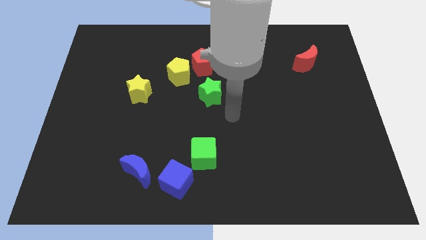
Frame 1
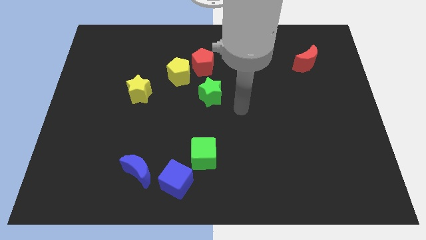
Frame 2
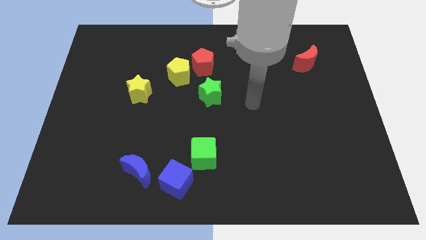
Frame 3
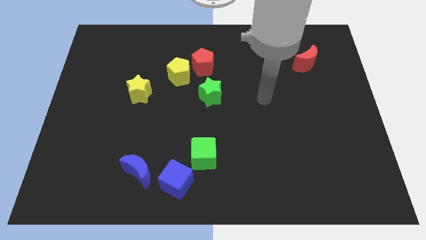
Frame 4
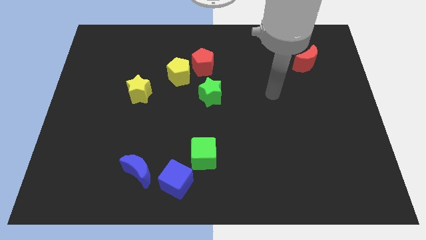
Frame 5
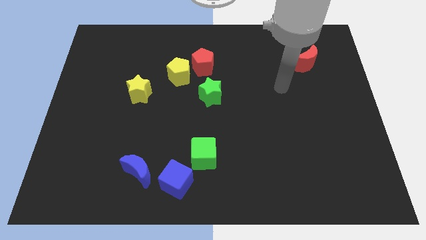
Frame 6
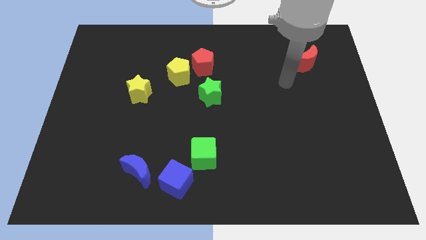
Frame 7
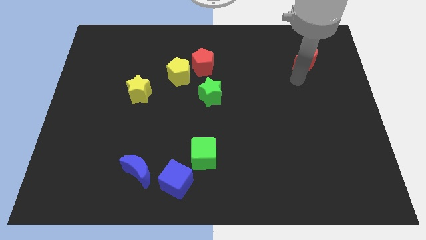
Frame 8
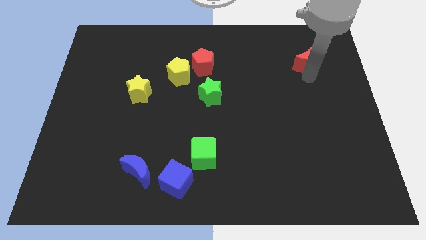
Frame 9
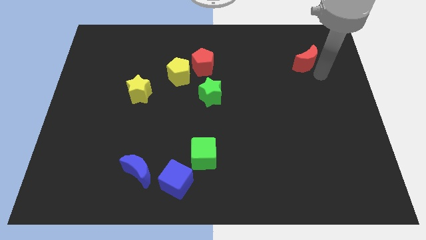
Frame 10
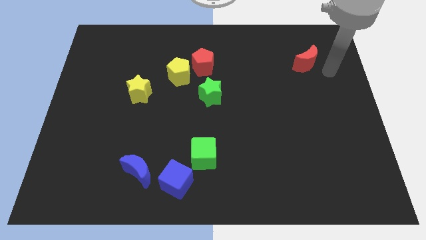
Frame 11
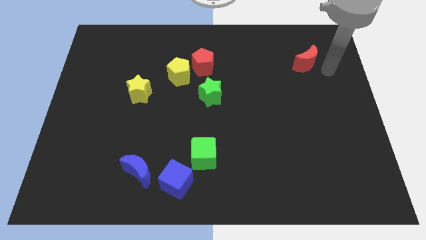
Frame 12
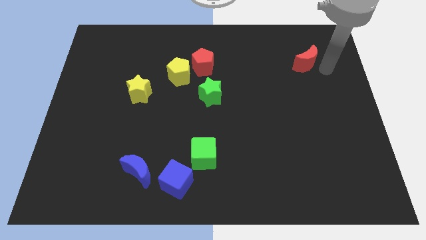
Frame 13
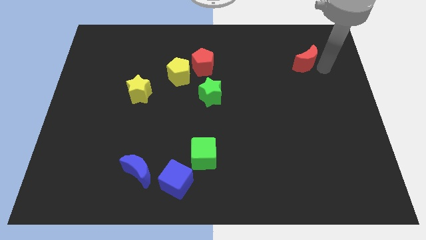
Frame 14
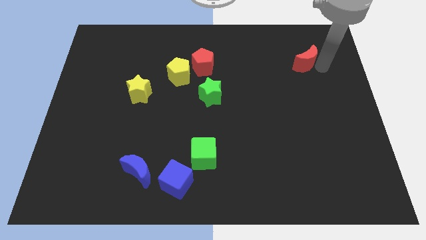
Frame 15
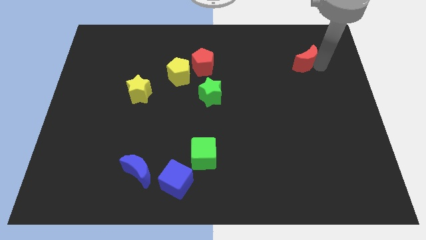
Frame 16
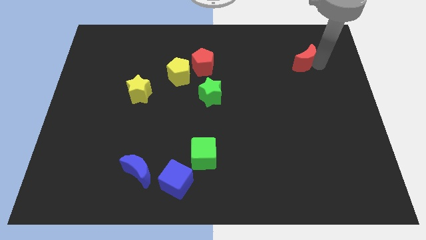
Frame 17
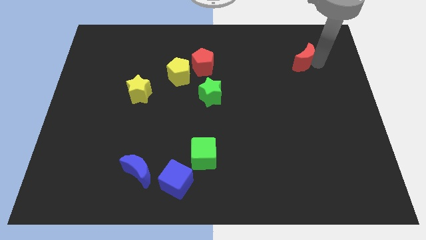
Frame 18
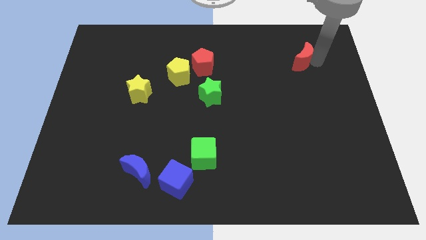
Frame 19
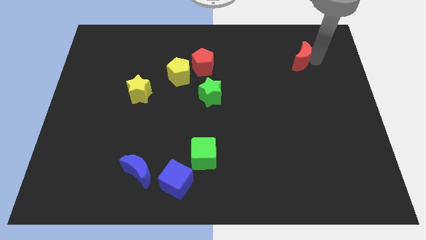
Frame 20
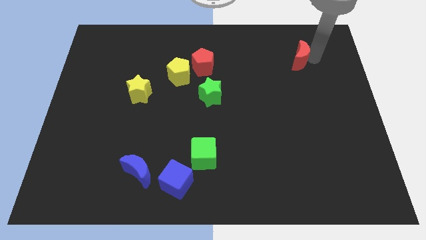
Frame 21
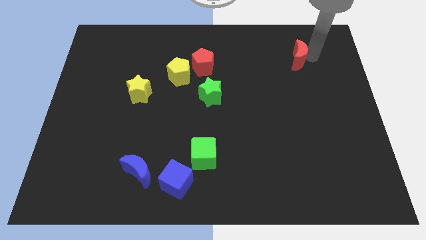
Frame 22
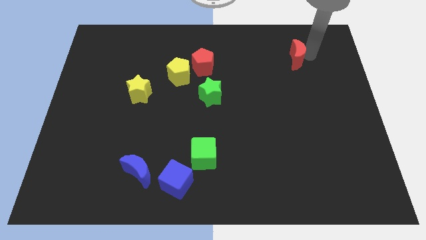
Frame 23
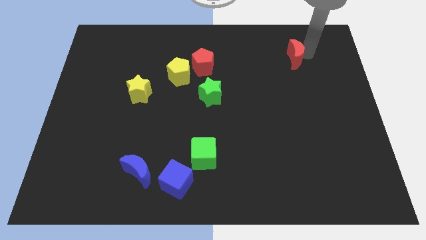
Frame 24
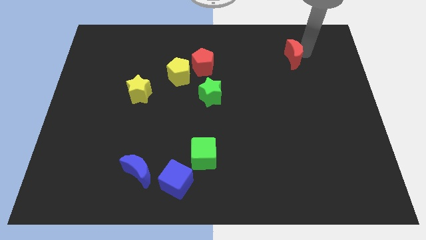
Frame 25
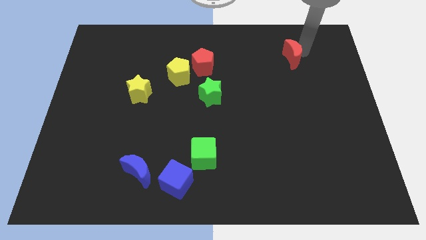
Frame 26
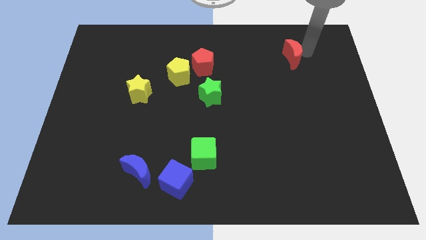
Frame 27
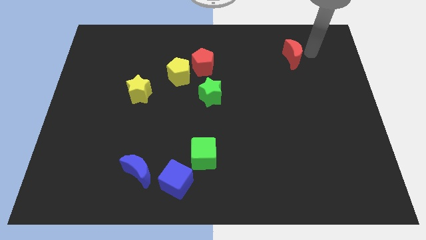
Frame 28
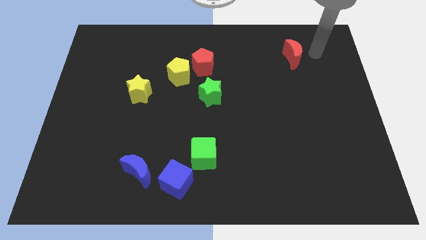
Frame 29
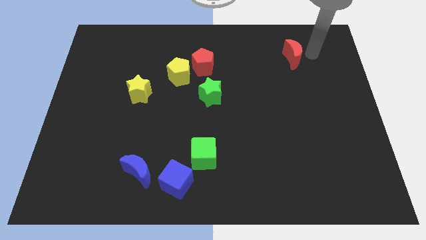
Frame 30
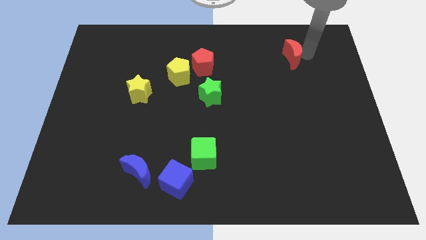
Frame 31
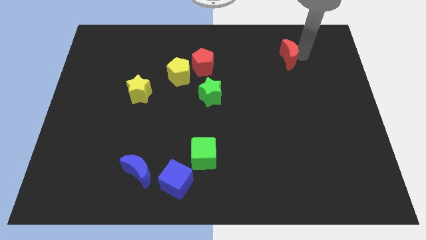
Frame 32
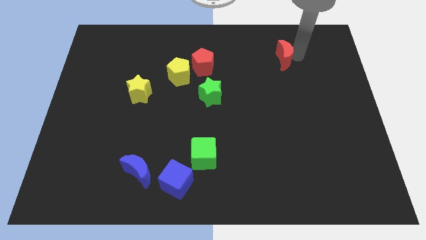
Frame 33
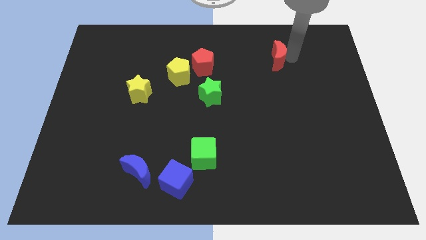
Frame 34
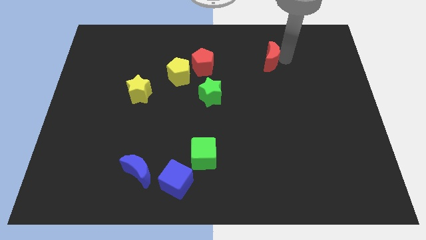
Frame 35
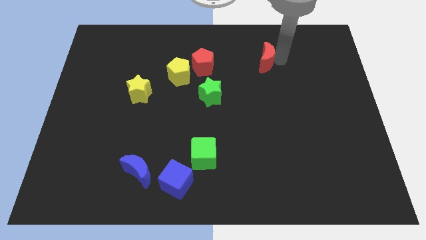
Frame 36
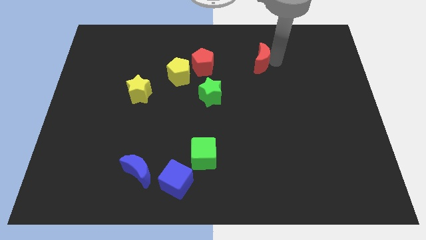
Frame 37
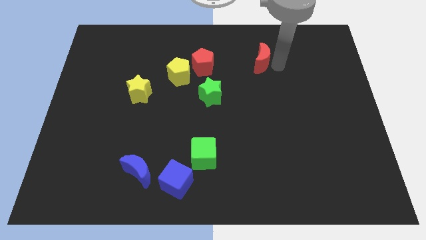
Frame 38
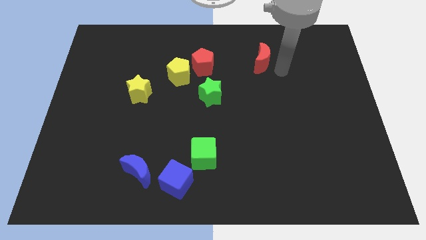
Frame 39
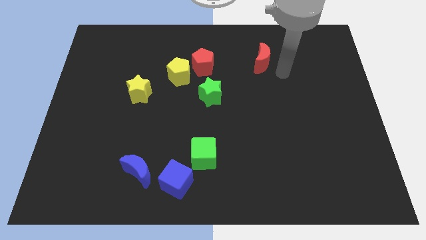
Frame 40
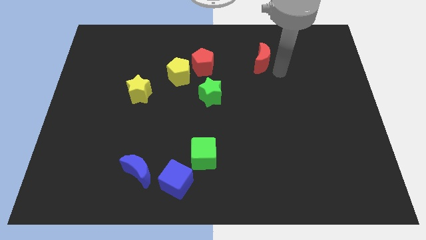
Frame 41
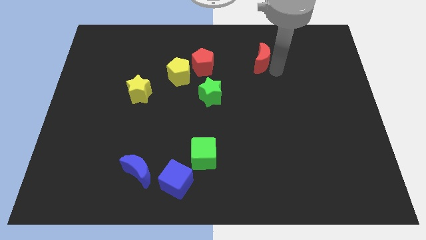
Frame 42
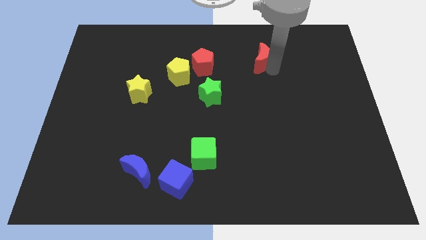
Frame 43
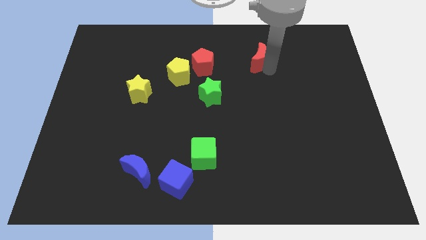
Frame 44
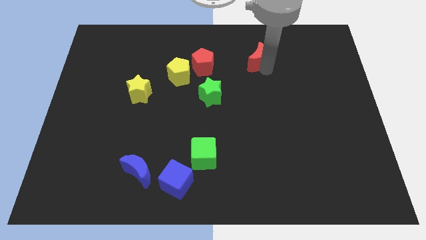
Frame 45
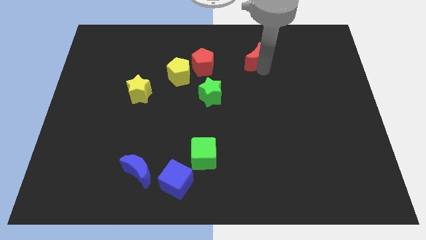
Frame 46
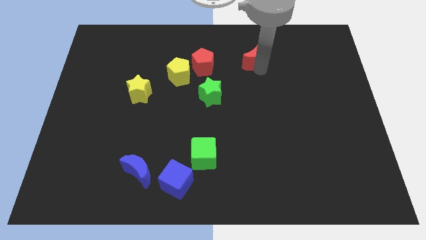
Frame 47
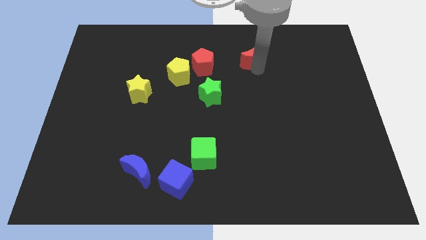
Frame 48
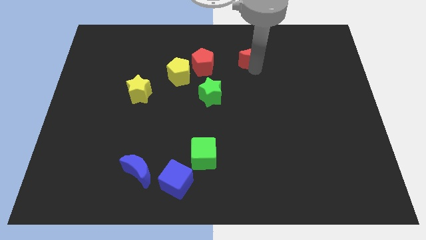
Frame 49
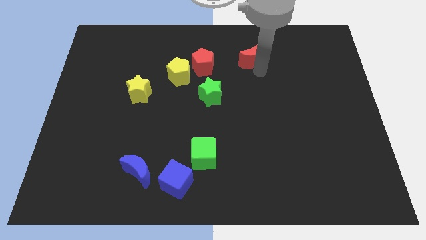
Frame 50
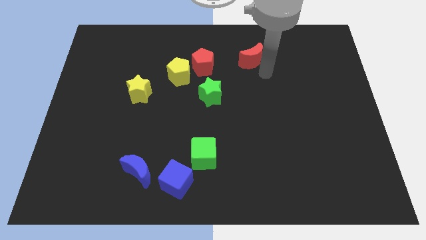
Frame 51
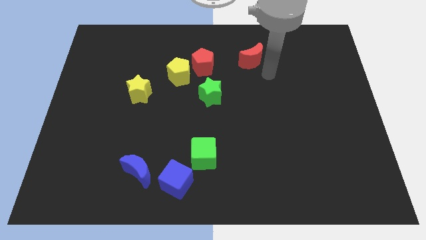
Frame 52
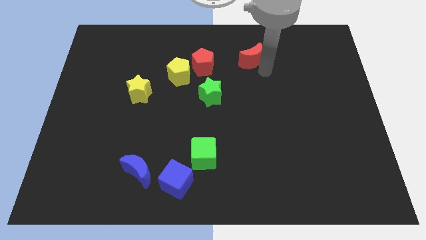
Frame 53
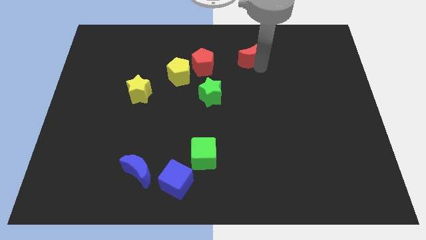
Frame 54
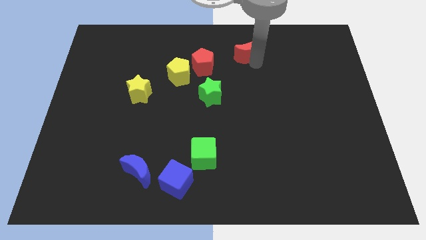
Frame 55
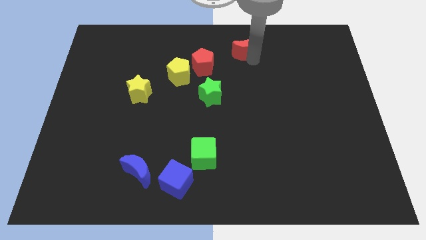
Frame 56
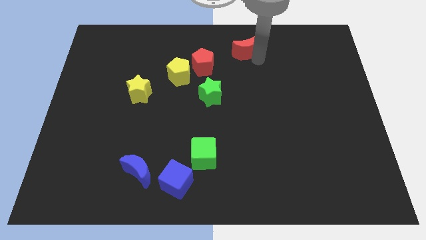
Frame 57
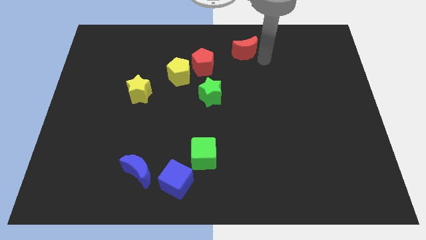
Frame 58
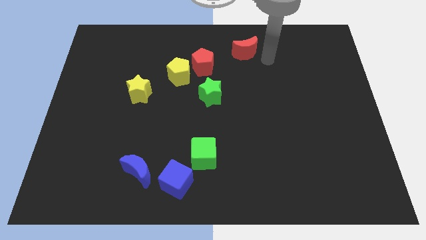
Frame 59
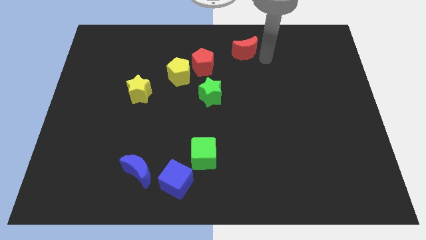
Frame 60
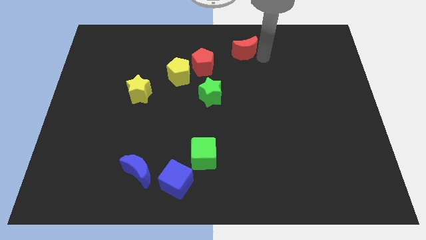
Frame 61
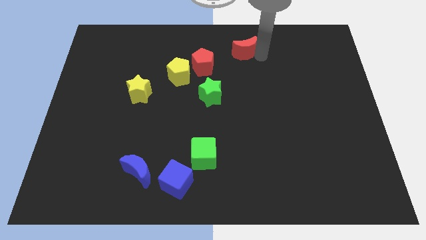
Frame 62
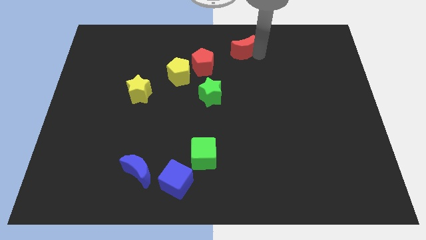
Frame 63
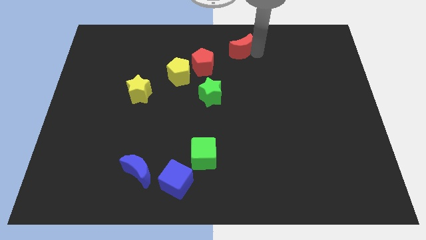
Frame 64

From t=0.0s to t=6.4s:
put the red moon to the top side
